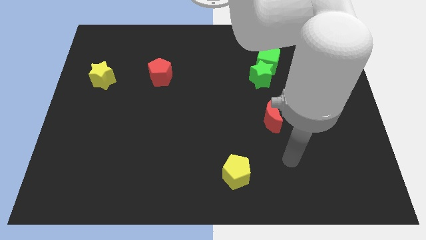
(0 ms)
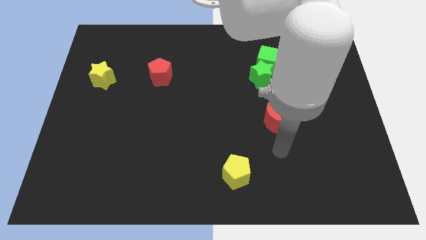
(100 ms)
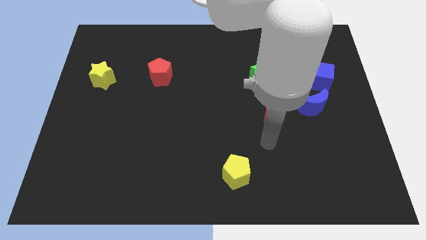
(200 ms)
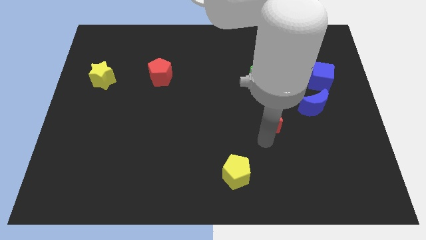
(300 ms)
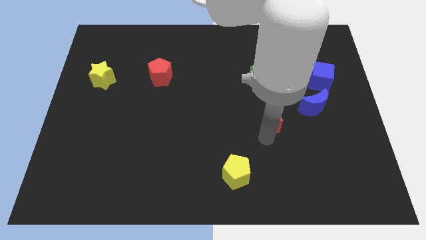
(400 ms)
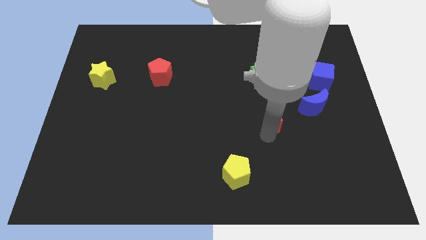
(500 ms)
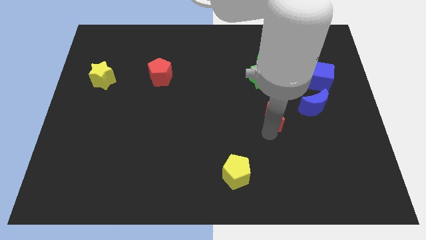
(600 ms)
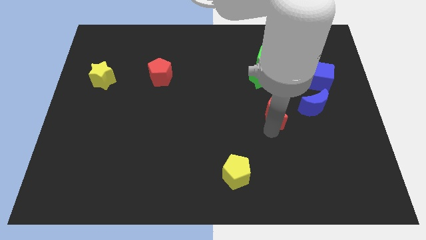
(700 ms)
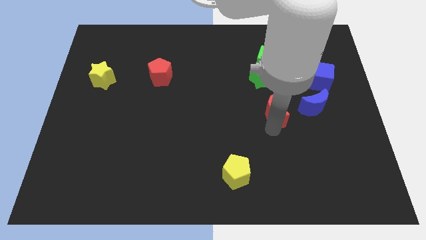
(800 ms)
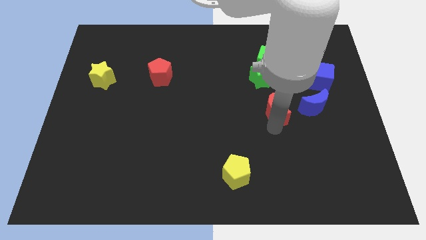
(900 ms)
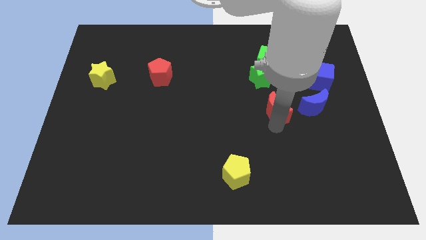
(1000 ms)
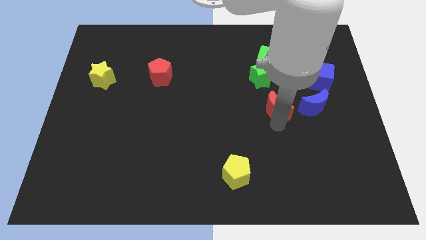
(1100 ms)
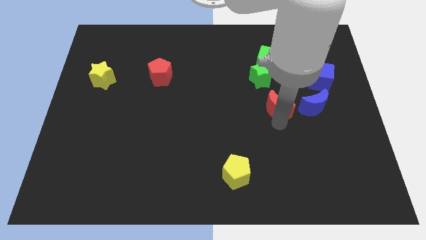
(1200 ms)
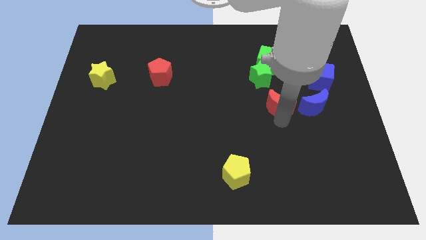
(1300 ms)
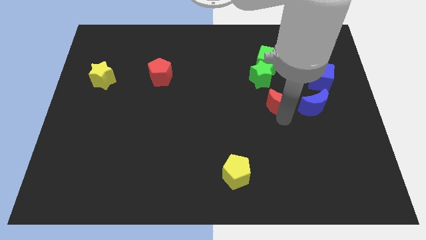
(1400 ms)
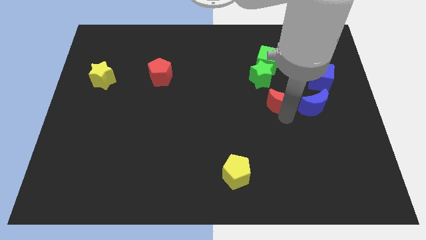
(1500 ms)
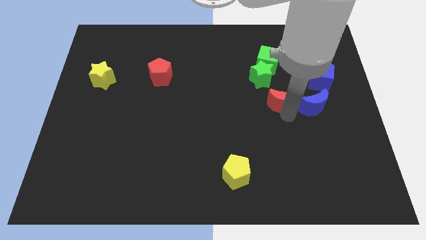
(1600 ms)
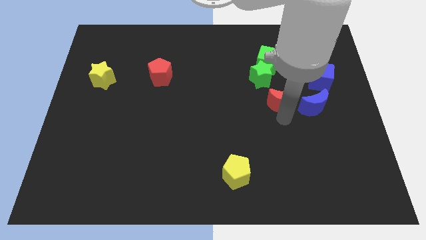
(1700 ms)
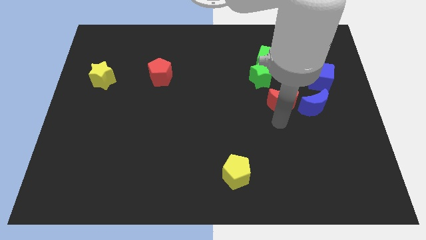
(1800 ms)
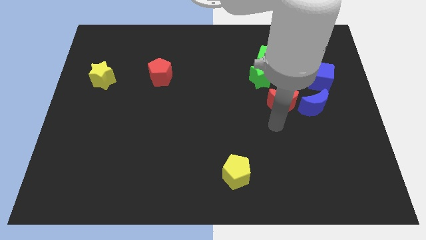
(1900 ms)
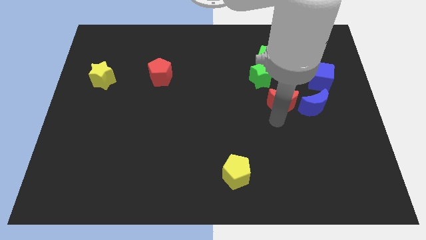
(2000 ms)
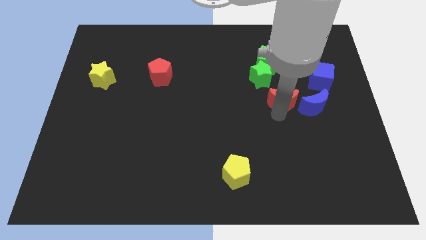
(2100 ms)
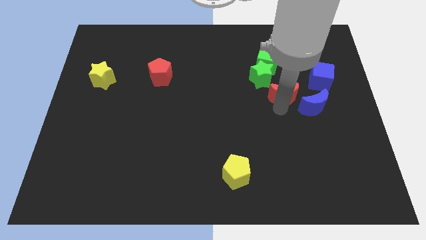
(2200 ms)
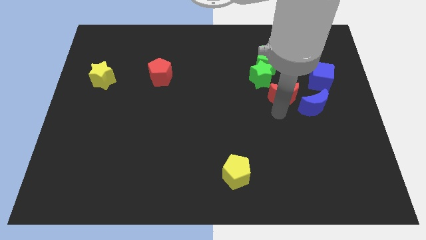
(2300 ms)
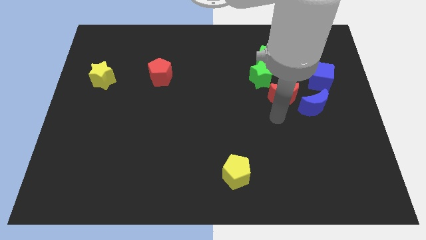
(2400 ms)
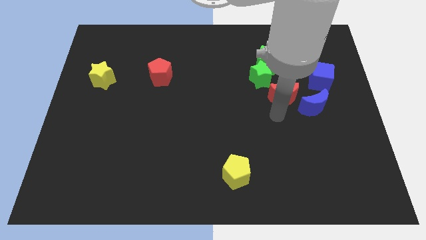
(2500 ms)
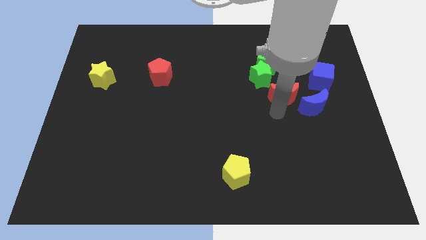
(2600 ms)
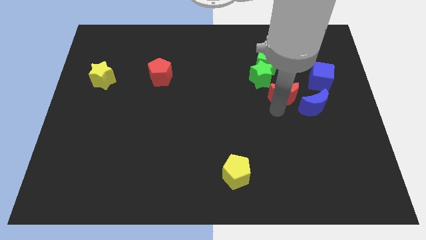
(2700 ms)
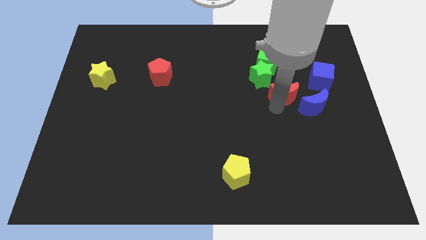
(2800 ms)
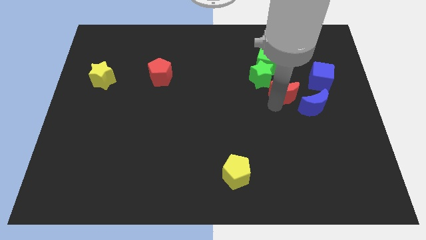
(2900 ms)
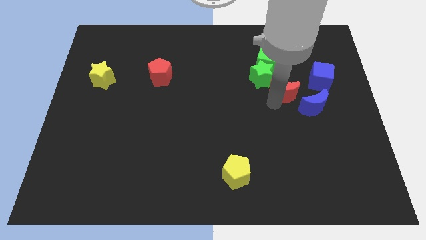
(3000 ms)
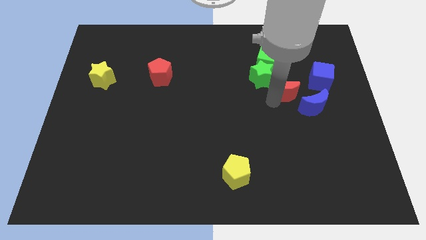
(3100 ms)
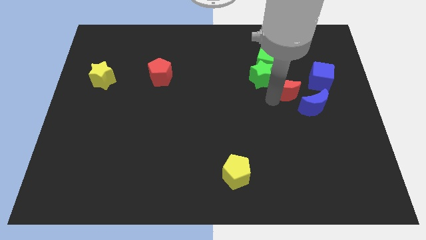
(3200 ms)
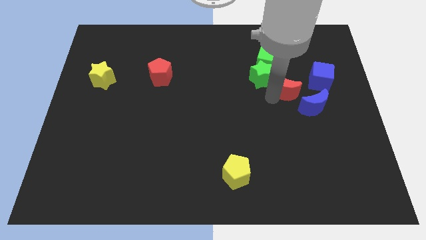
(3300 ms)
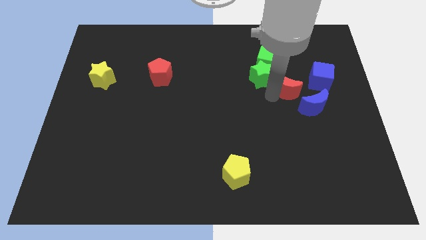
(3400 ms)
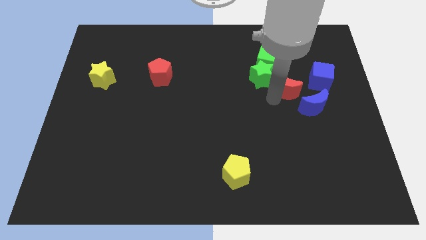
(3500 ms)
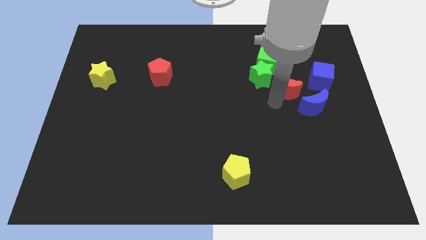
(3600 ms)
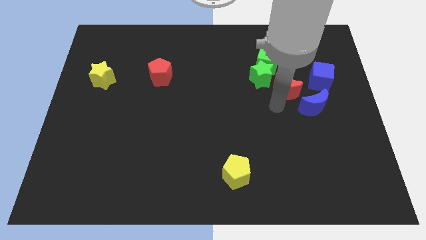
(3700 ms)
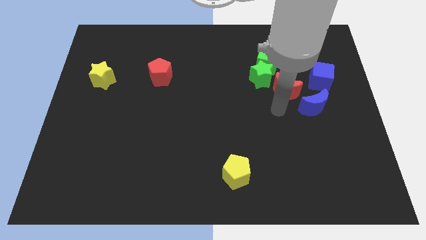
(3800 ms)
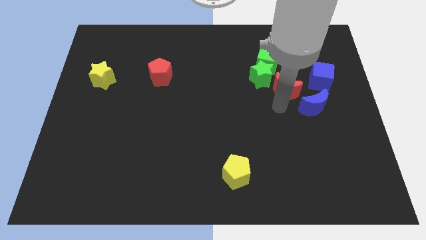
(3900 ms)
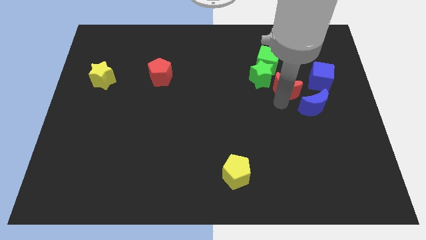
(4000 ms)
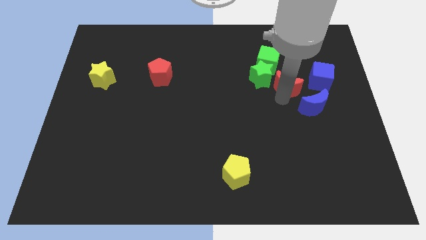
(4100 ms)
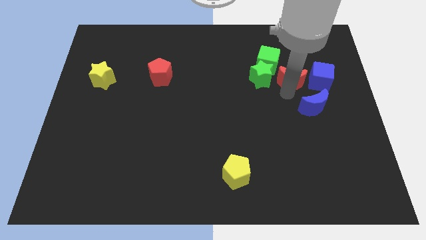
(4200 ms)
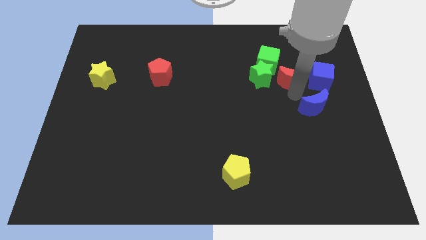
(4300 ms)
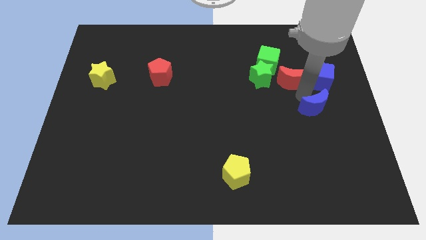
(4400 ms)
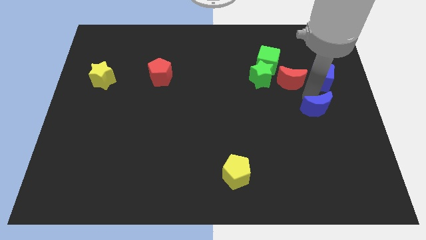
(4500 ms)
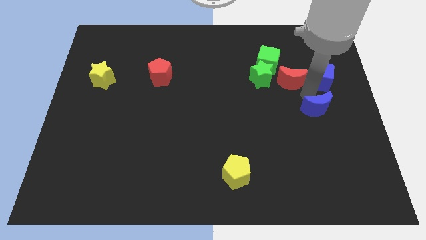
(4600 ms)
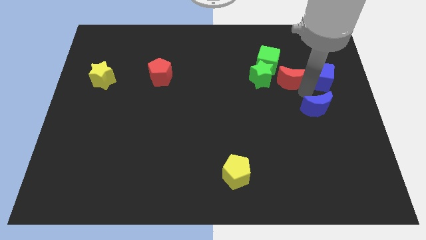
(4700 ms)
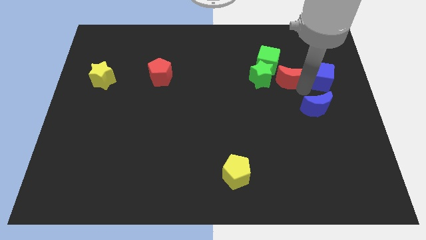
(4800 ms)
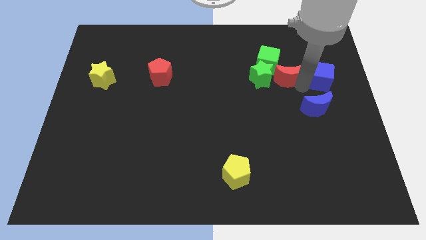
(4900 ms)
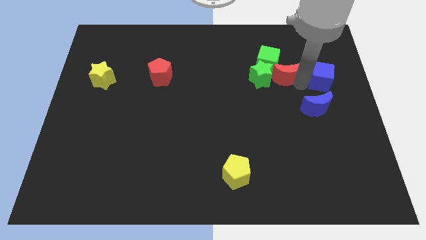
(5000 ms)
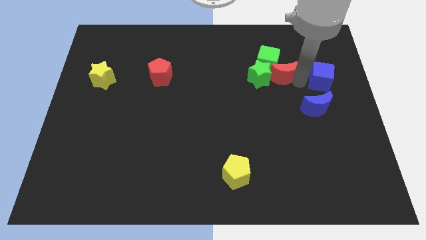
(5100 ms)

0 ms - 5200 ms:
put the red moon to the green cube

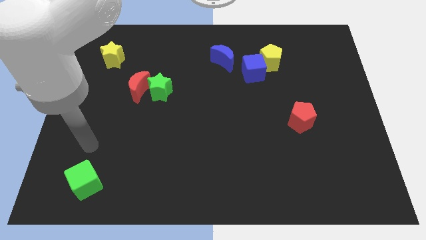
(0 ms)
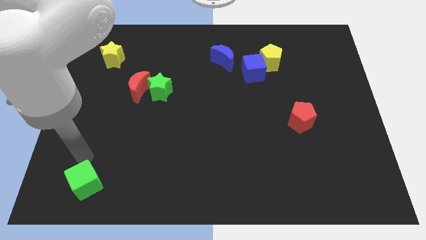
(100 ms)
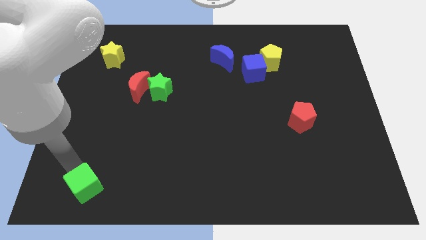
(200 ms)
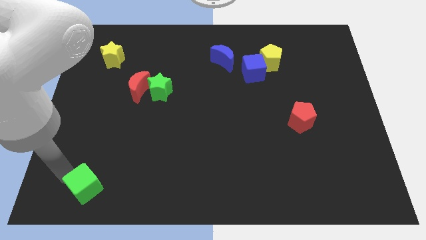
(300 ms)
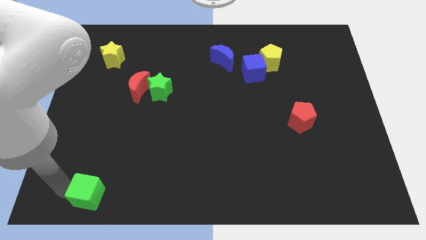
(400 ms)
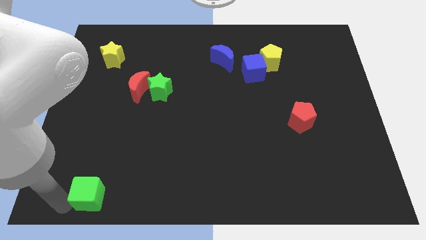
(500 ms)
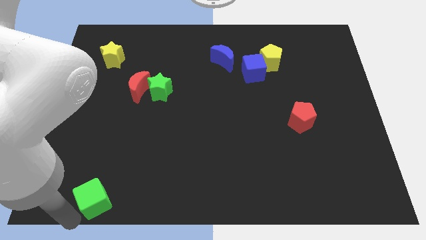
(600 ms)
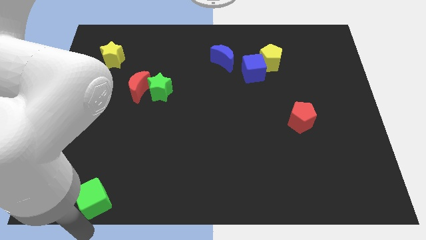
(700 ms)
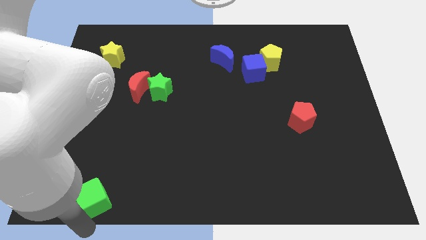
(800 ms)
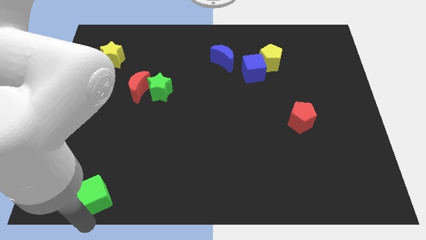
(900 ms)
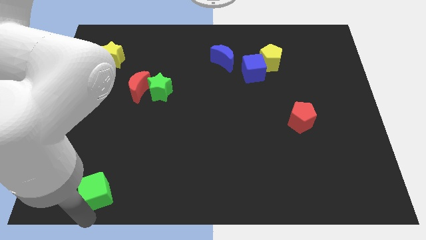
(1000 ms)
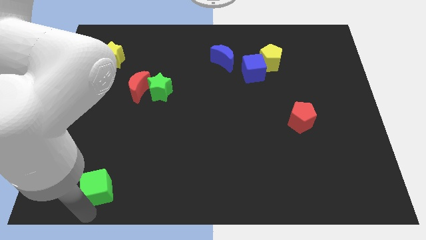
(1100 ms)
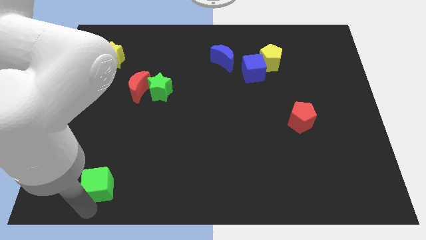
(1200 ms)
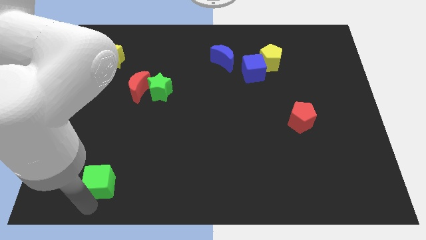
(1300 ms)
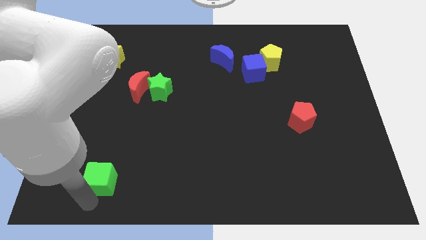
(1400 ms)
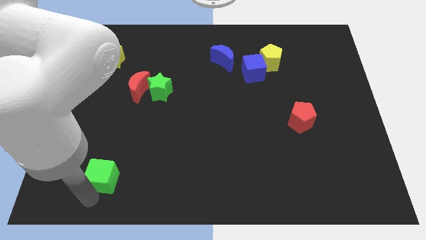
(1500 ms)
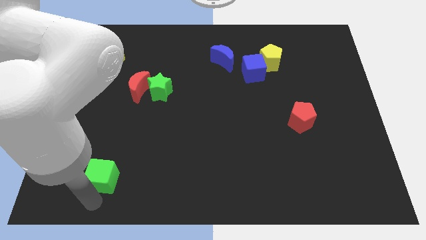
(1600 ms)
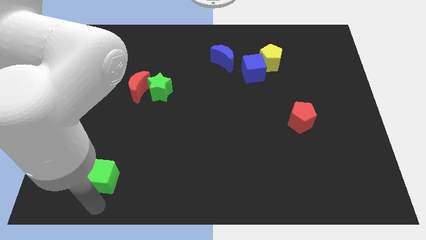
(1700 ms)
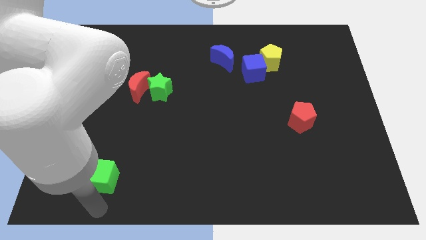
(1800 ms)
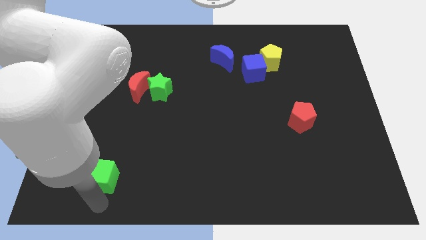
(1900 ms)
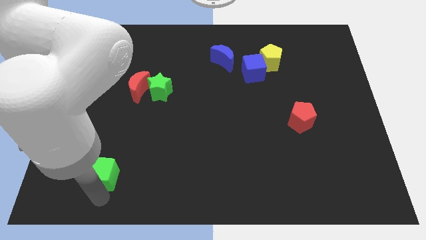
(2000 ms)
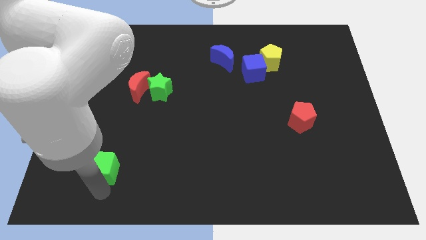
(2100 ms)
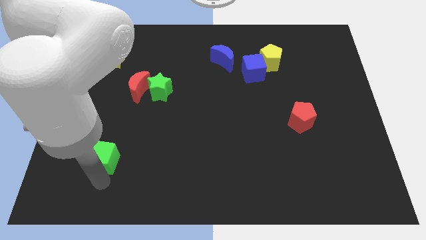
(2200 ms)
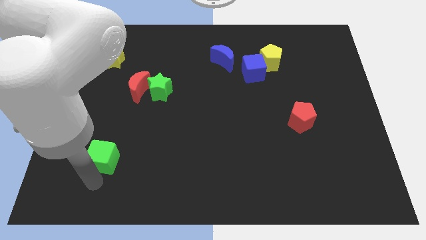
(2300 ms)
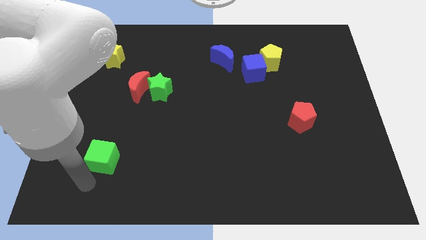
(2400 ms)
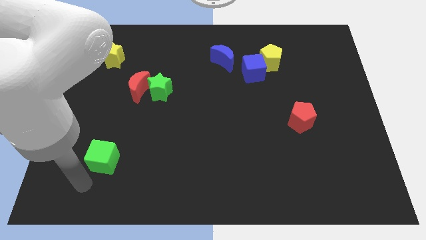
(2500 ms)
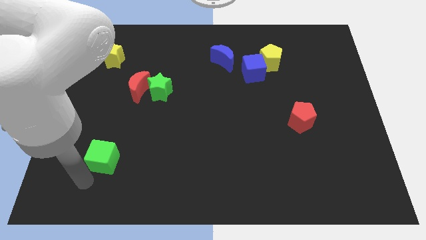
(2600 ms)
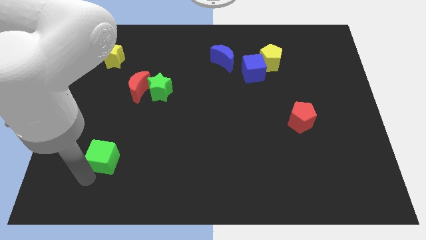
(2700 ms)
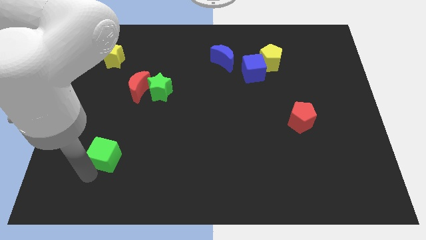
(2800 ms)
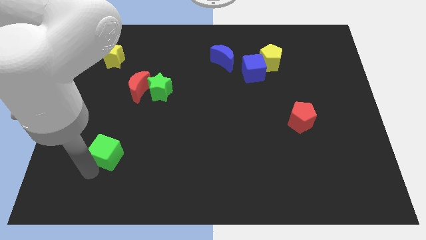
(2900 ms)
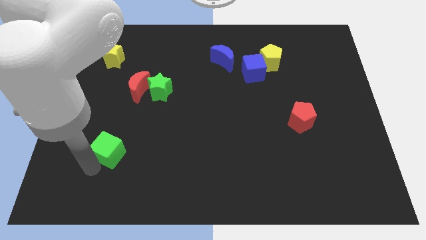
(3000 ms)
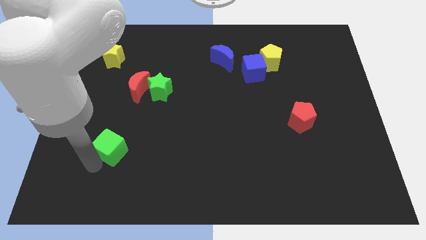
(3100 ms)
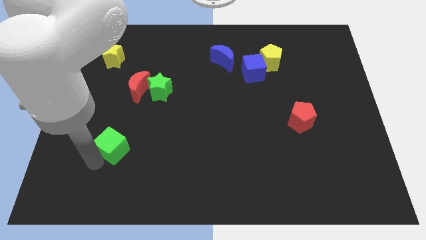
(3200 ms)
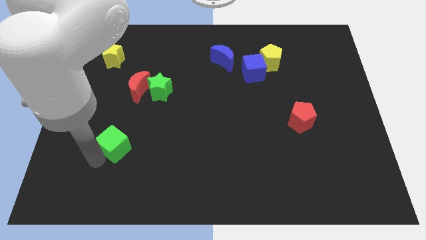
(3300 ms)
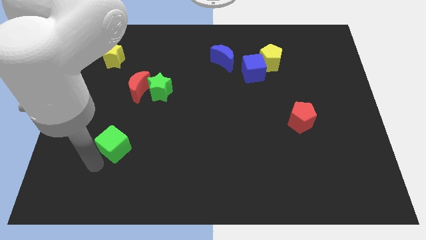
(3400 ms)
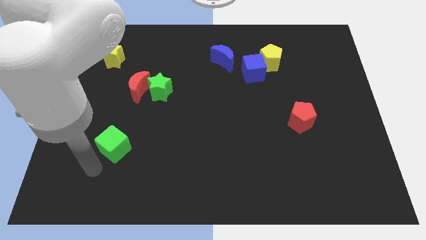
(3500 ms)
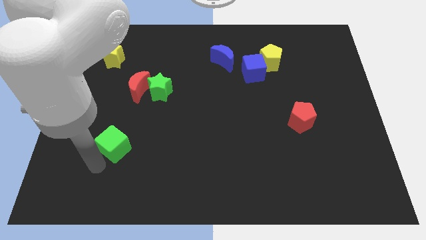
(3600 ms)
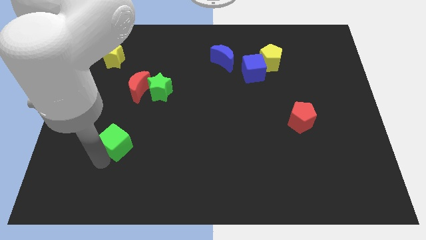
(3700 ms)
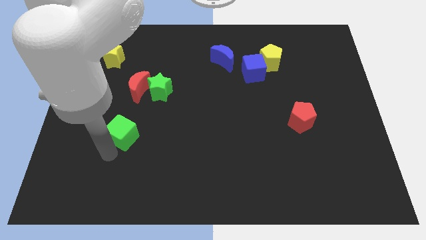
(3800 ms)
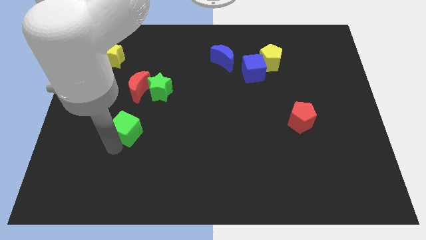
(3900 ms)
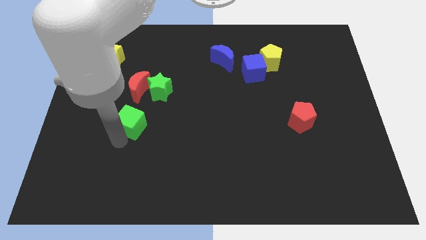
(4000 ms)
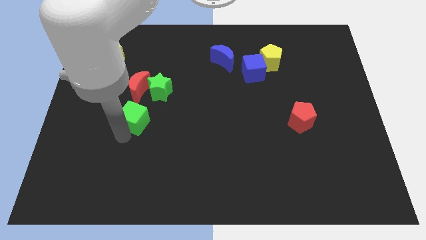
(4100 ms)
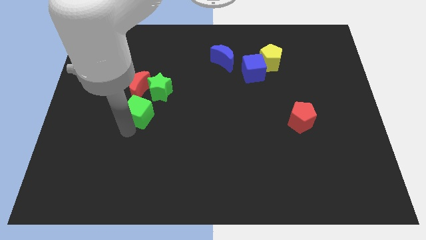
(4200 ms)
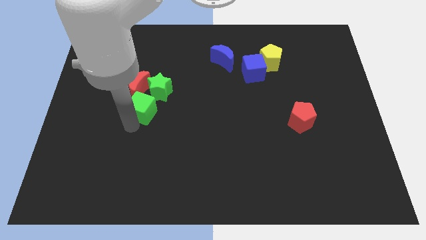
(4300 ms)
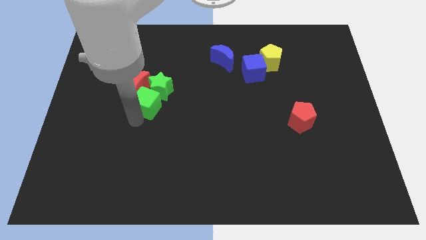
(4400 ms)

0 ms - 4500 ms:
put the green cube close to the green star
